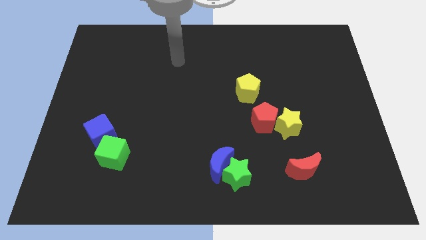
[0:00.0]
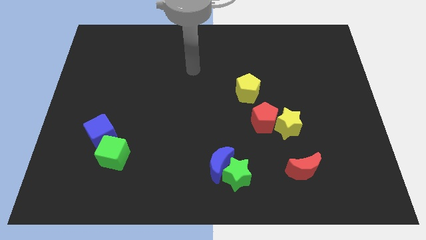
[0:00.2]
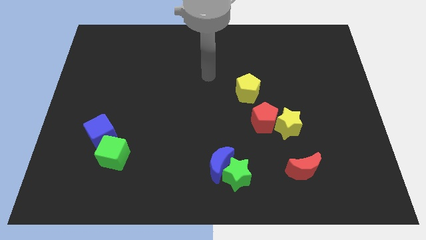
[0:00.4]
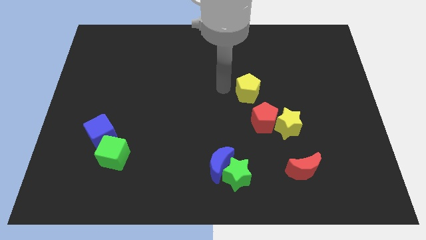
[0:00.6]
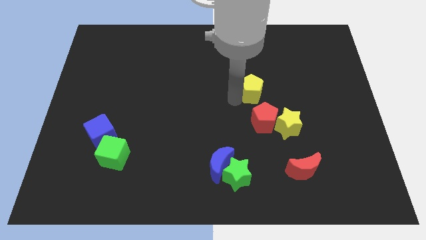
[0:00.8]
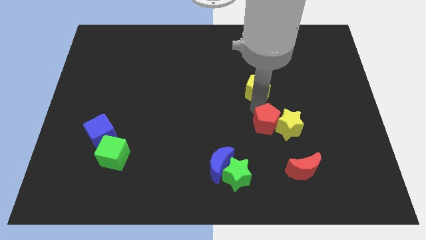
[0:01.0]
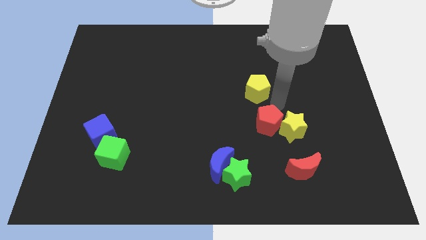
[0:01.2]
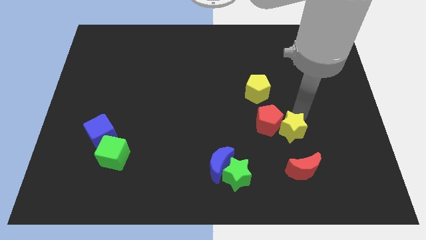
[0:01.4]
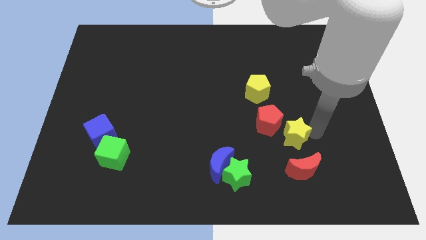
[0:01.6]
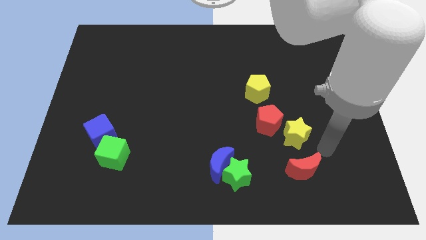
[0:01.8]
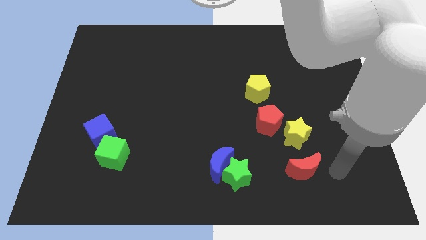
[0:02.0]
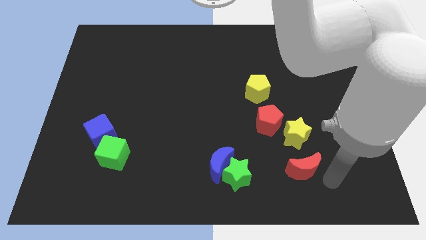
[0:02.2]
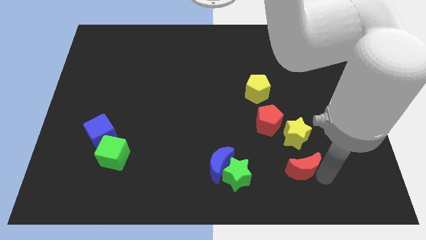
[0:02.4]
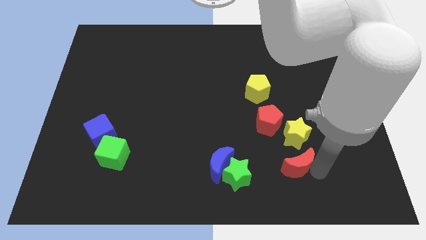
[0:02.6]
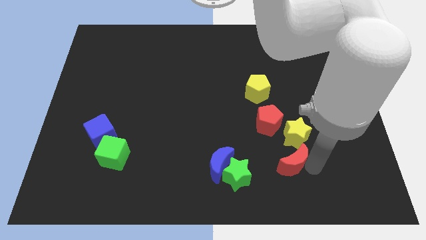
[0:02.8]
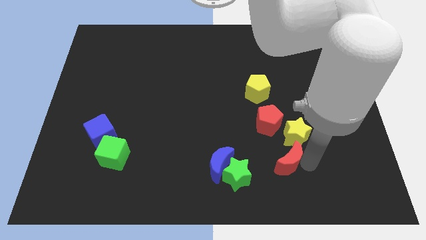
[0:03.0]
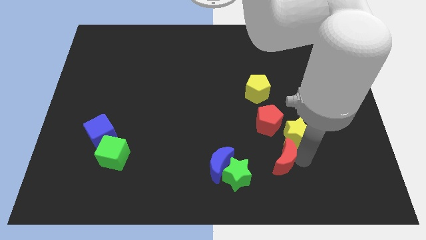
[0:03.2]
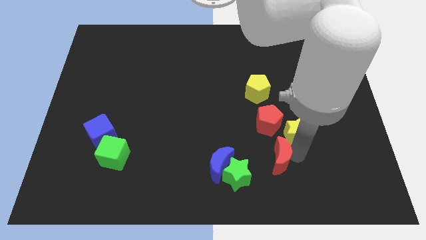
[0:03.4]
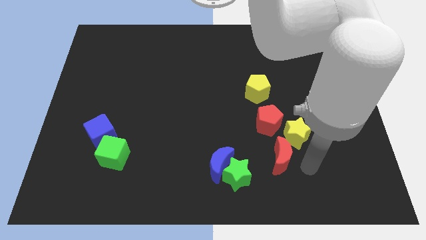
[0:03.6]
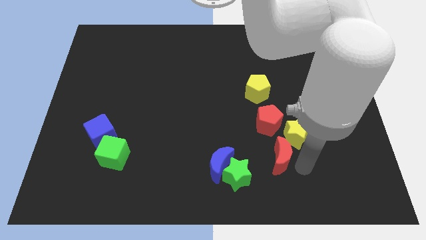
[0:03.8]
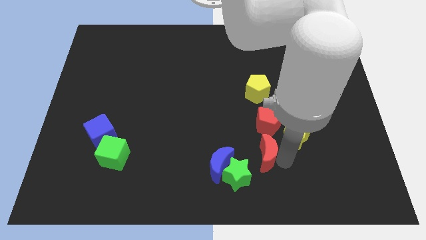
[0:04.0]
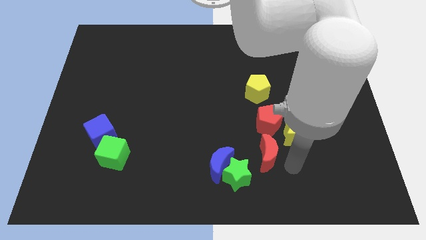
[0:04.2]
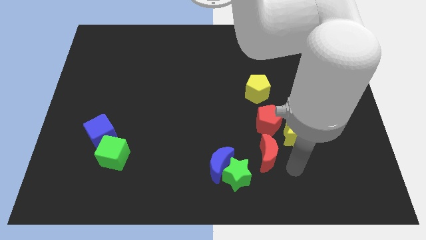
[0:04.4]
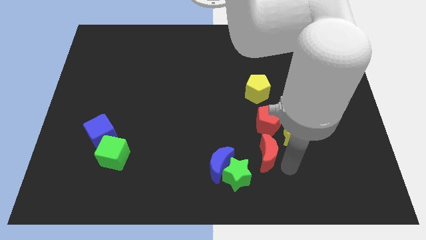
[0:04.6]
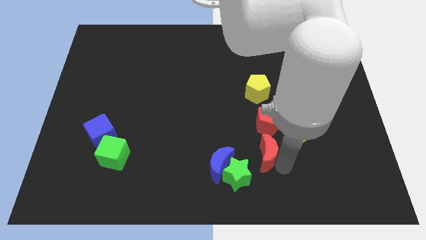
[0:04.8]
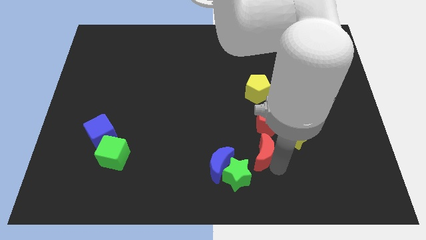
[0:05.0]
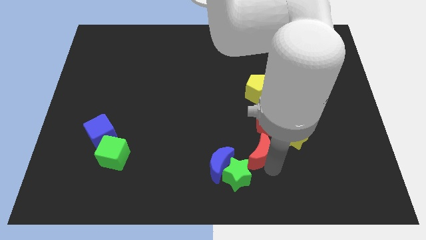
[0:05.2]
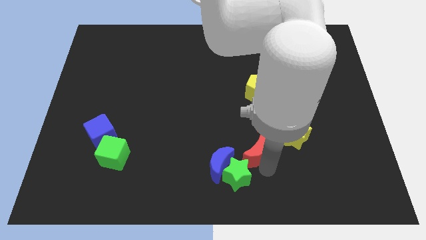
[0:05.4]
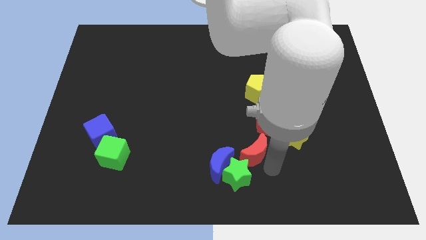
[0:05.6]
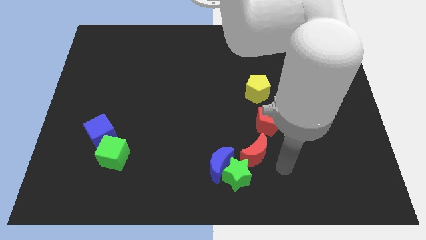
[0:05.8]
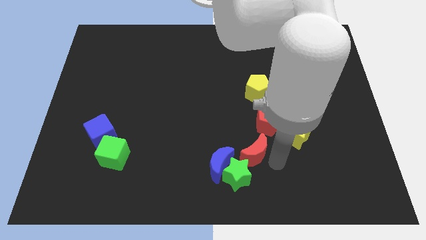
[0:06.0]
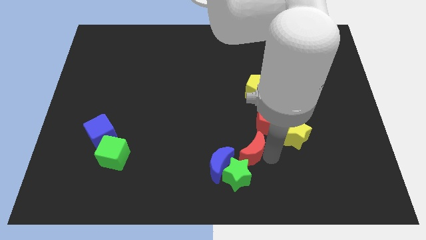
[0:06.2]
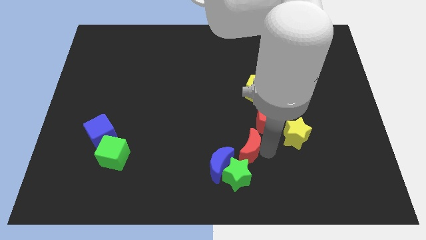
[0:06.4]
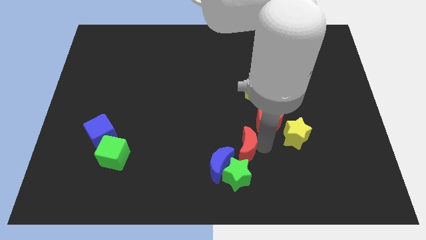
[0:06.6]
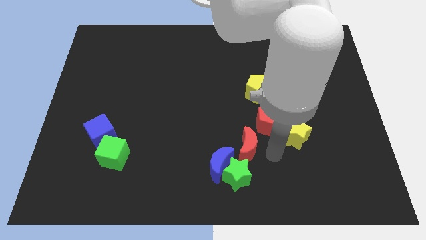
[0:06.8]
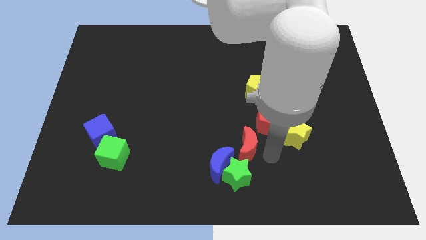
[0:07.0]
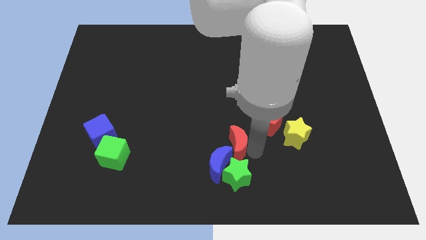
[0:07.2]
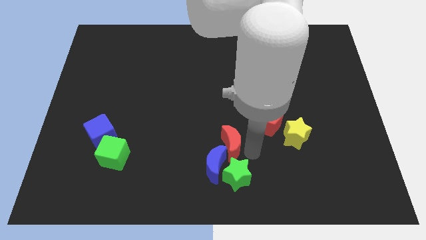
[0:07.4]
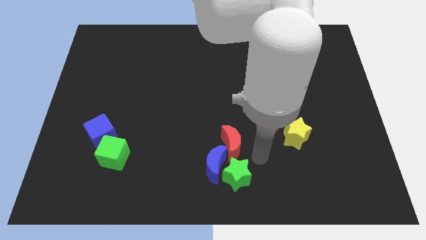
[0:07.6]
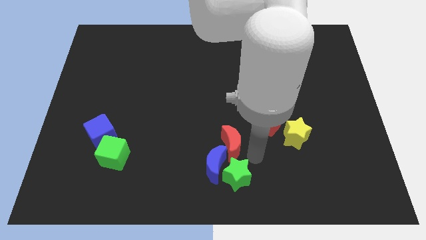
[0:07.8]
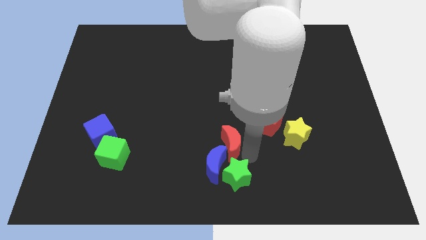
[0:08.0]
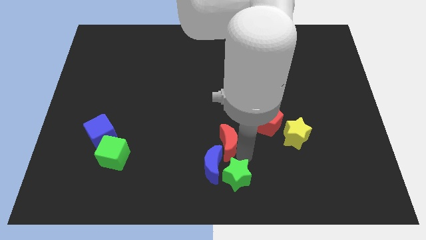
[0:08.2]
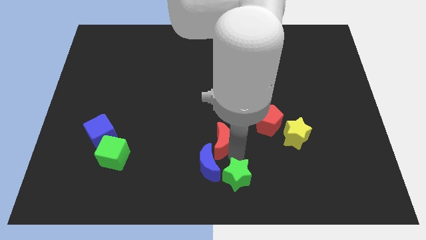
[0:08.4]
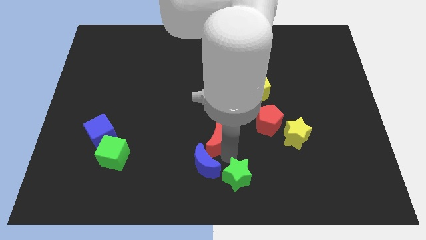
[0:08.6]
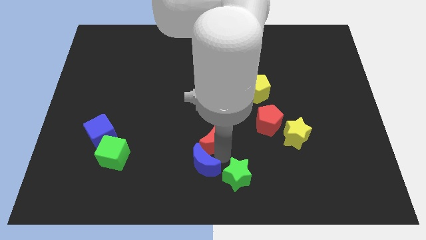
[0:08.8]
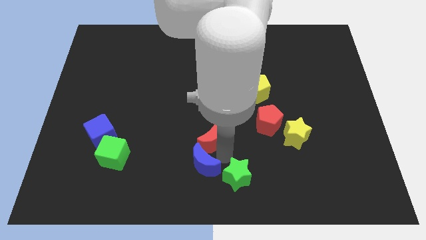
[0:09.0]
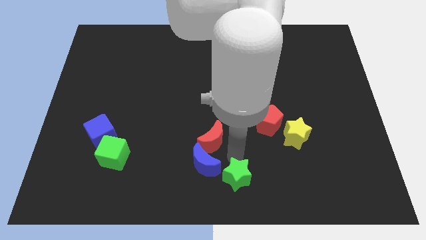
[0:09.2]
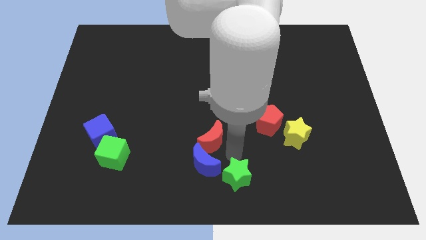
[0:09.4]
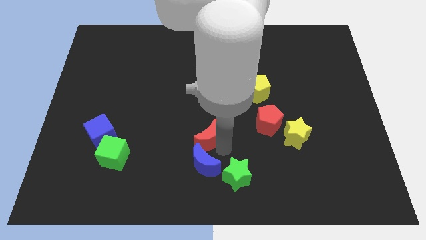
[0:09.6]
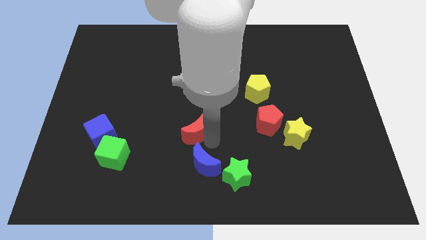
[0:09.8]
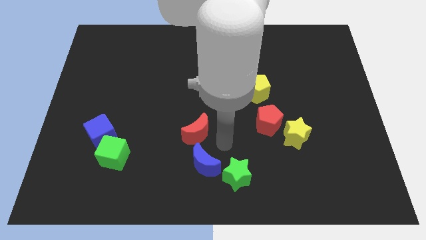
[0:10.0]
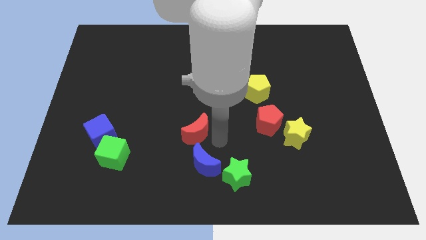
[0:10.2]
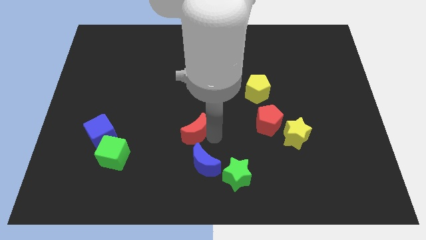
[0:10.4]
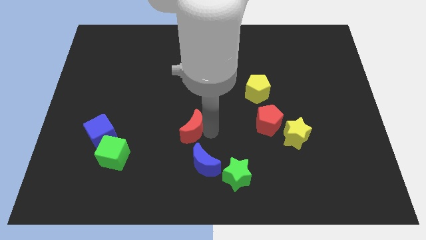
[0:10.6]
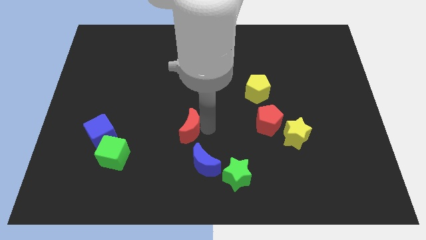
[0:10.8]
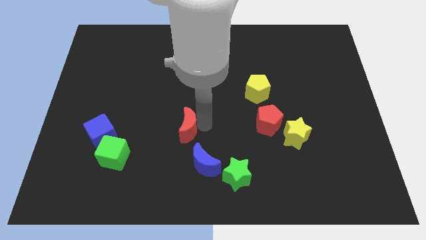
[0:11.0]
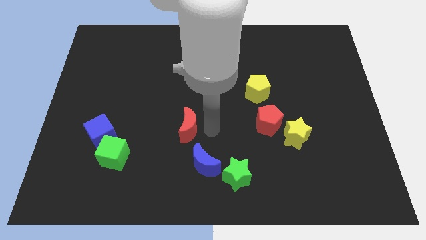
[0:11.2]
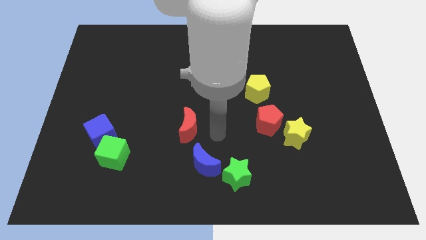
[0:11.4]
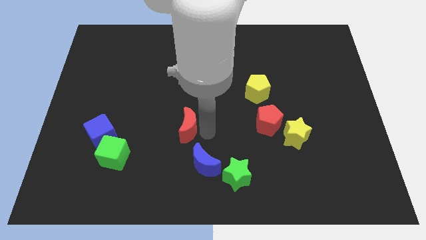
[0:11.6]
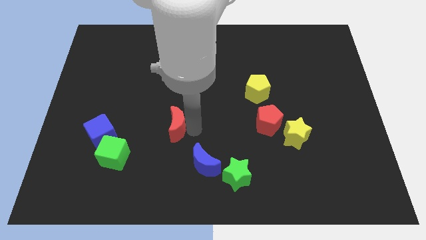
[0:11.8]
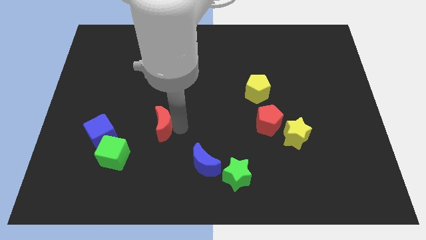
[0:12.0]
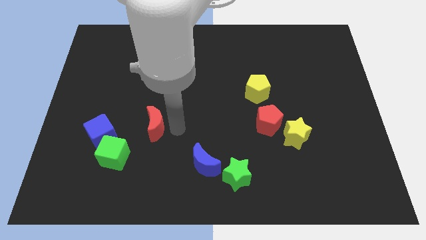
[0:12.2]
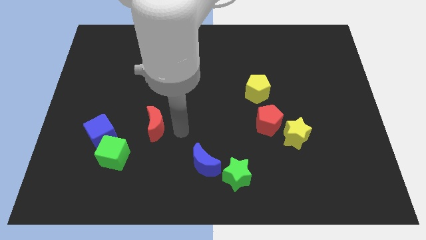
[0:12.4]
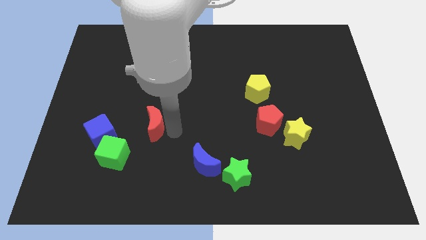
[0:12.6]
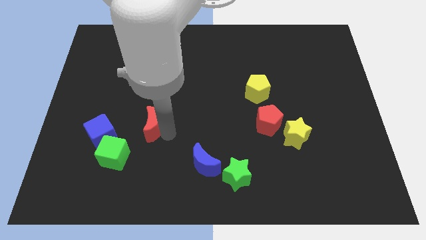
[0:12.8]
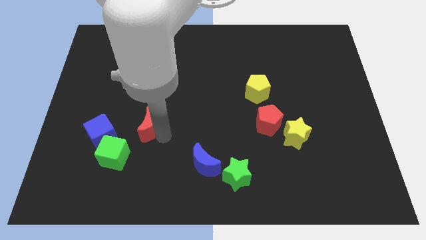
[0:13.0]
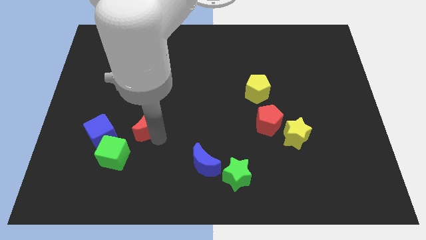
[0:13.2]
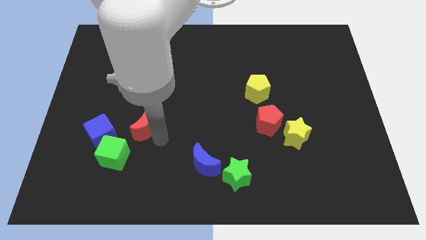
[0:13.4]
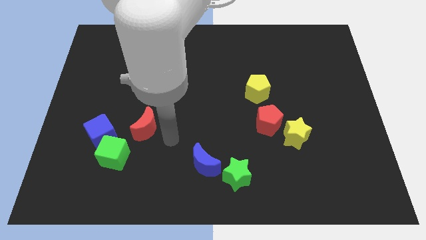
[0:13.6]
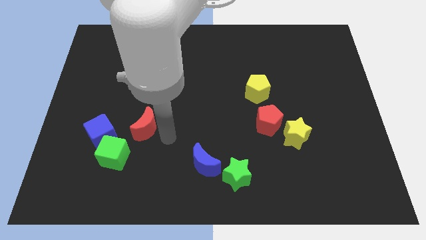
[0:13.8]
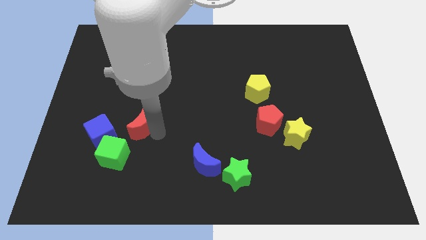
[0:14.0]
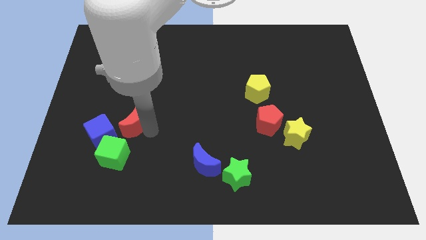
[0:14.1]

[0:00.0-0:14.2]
put the red moon above the green cube
